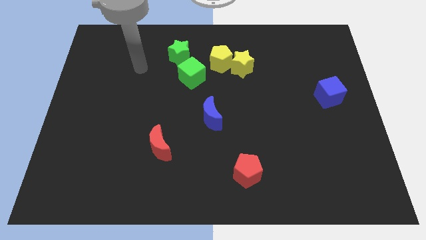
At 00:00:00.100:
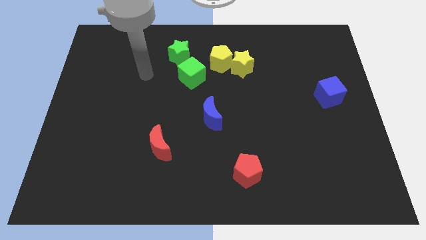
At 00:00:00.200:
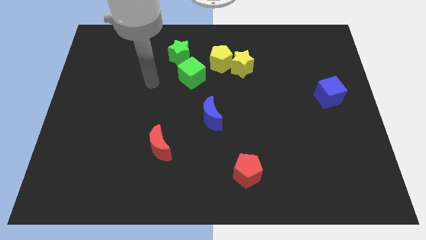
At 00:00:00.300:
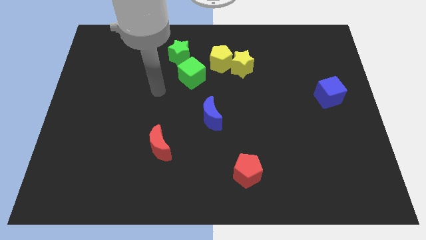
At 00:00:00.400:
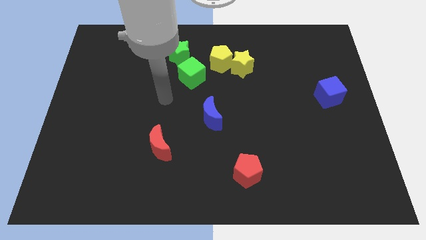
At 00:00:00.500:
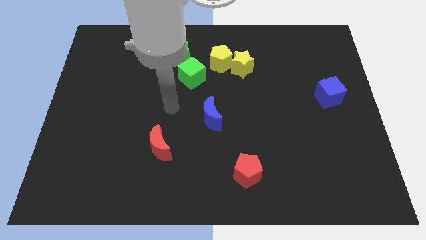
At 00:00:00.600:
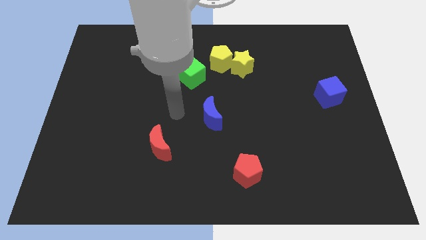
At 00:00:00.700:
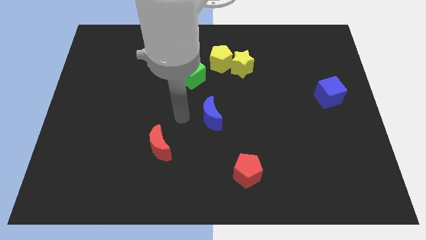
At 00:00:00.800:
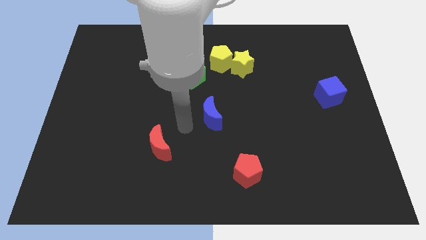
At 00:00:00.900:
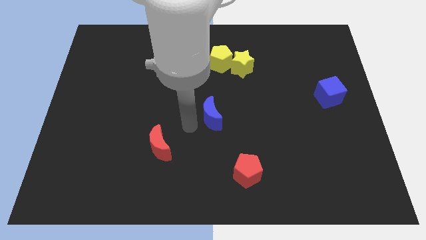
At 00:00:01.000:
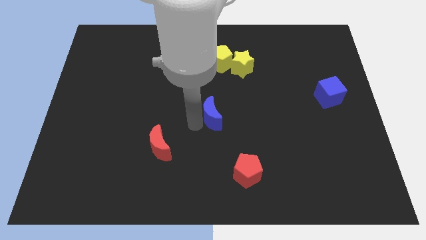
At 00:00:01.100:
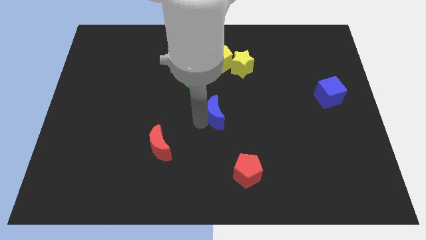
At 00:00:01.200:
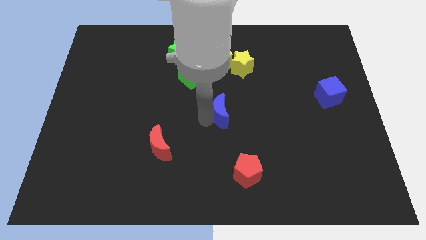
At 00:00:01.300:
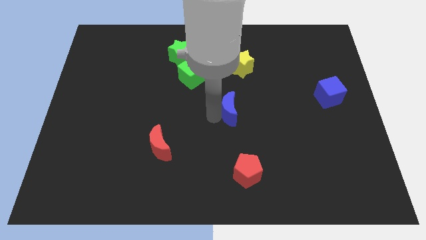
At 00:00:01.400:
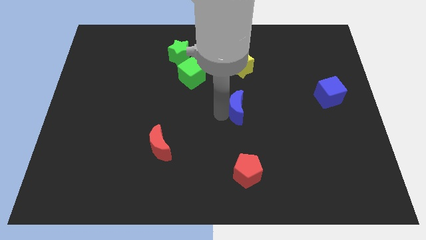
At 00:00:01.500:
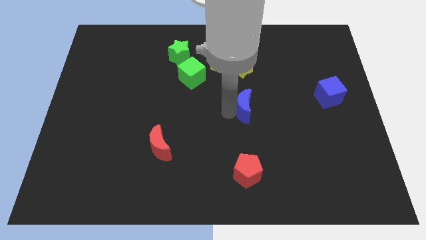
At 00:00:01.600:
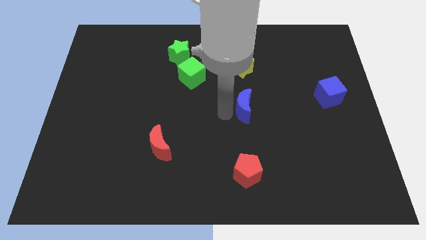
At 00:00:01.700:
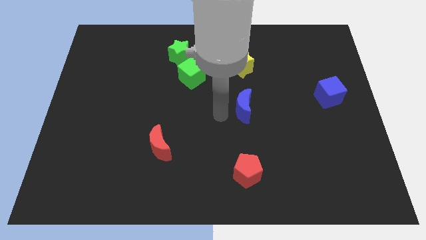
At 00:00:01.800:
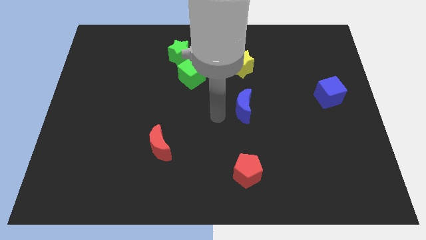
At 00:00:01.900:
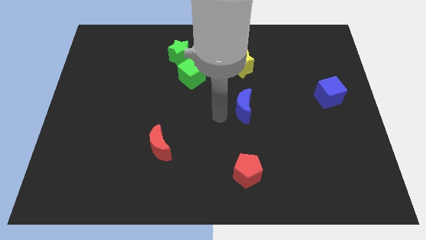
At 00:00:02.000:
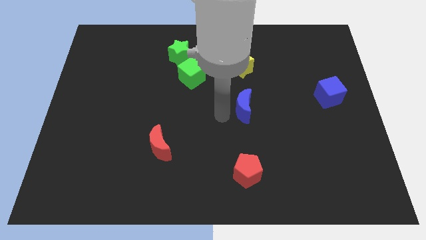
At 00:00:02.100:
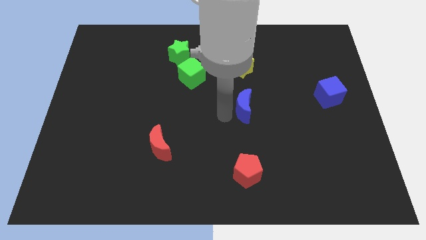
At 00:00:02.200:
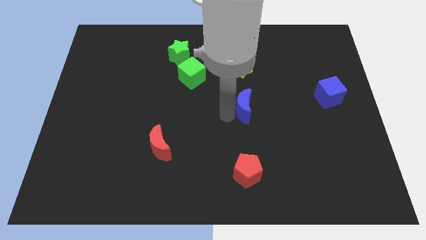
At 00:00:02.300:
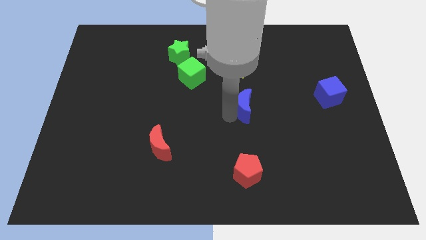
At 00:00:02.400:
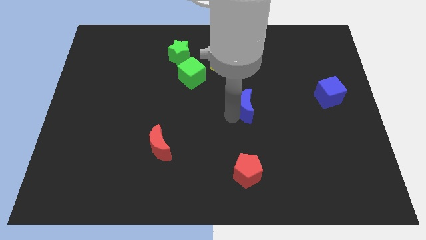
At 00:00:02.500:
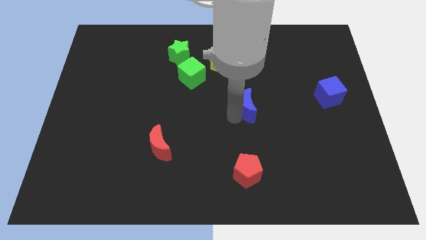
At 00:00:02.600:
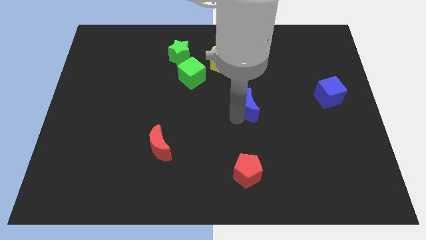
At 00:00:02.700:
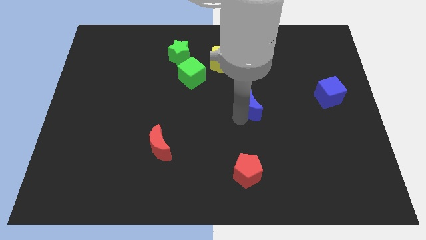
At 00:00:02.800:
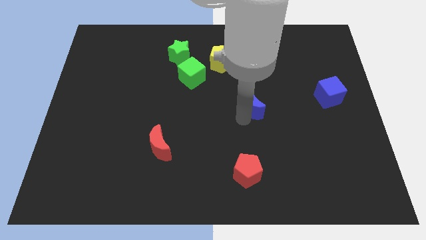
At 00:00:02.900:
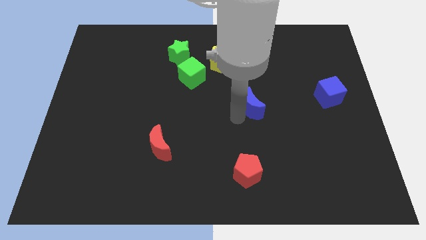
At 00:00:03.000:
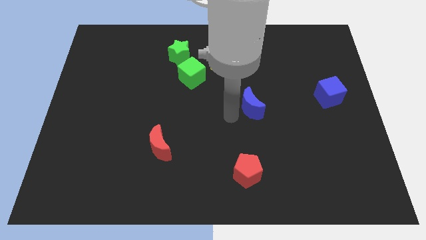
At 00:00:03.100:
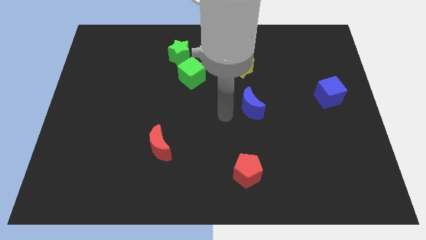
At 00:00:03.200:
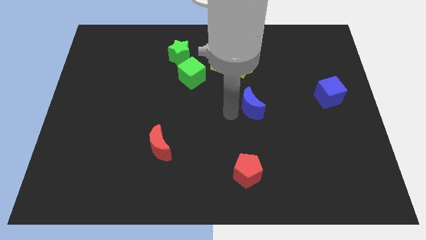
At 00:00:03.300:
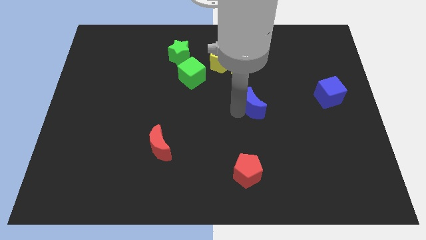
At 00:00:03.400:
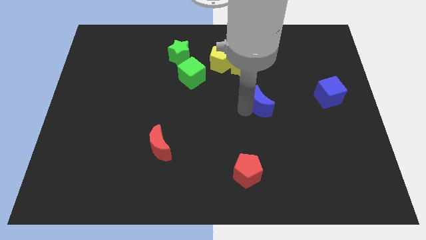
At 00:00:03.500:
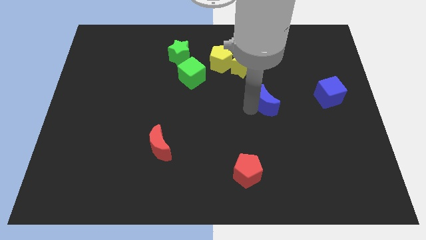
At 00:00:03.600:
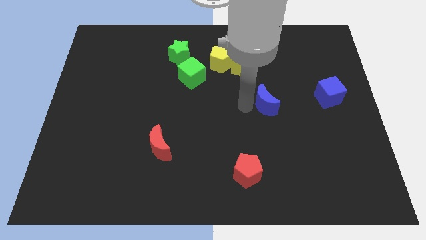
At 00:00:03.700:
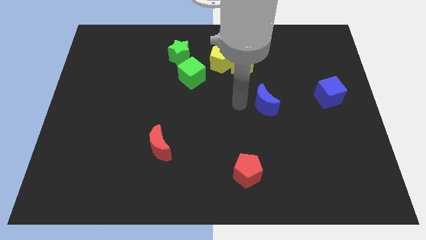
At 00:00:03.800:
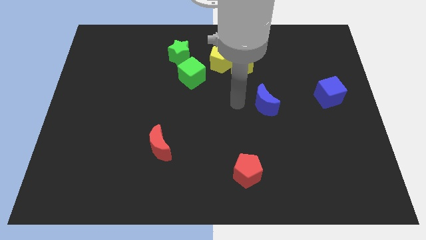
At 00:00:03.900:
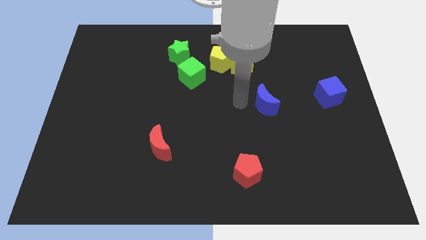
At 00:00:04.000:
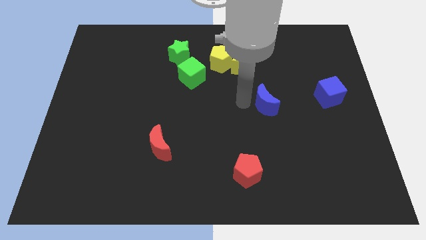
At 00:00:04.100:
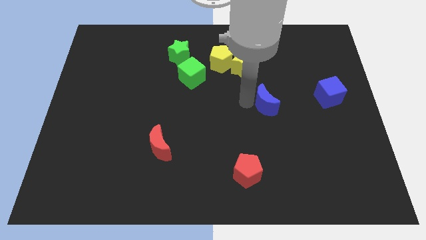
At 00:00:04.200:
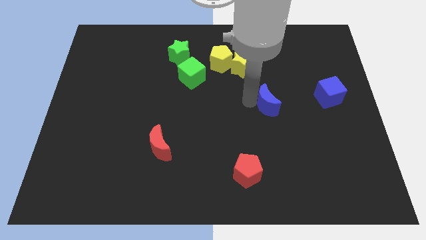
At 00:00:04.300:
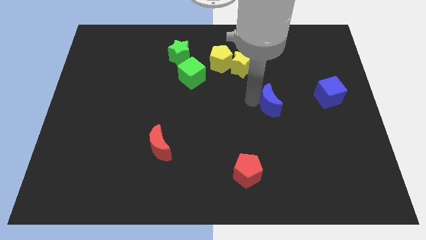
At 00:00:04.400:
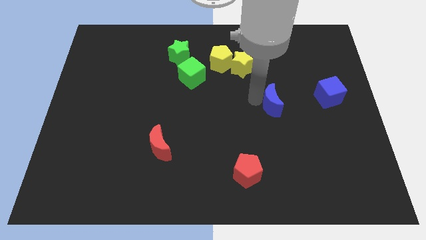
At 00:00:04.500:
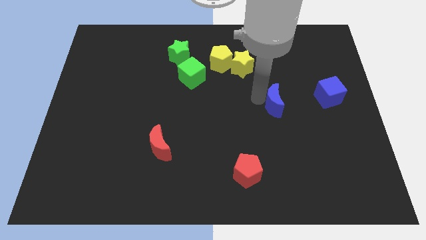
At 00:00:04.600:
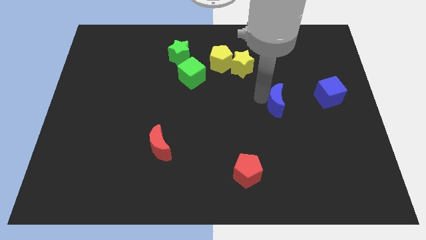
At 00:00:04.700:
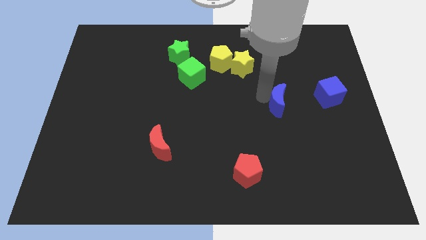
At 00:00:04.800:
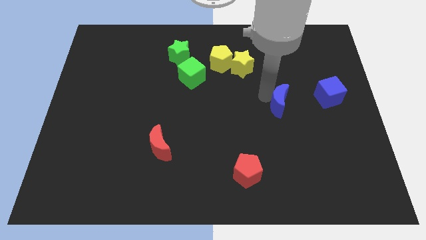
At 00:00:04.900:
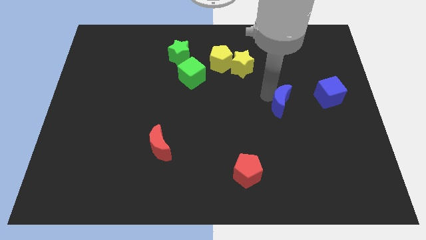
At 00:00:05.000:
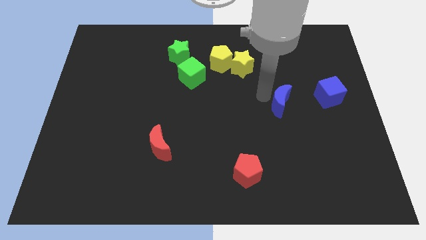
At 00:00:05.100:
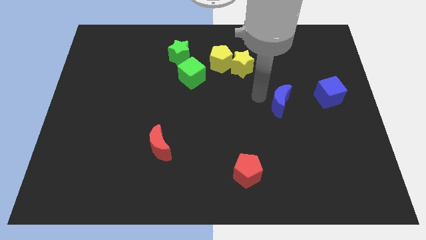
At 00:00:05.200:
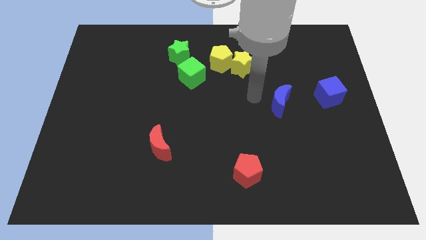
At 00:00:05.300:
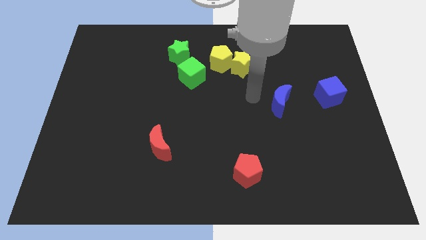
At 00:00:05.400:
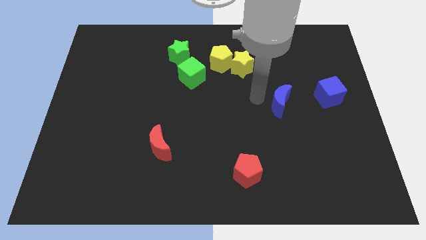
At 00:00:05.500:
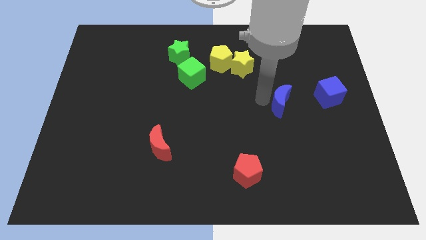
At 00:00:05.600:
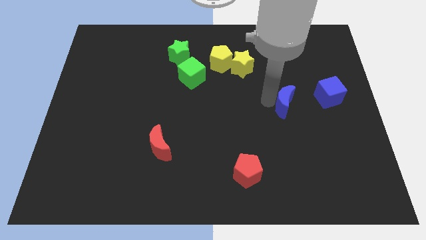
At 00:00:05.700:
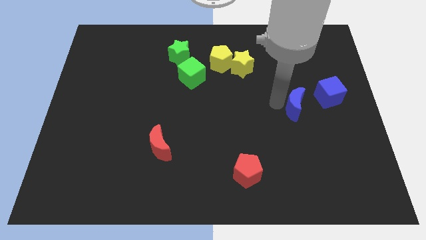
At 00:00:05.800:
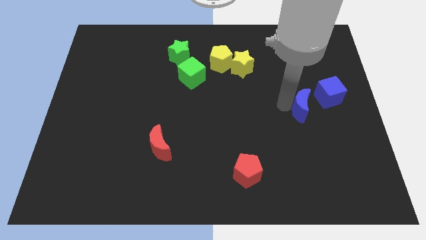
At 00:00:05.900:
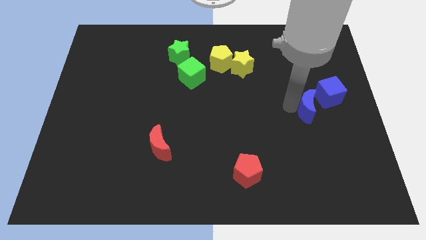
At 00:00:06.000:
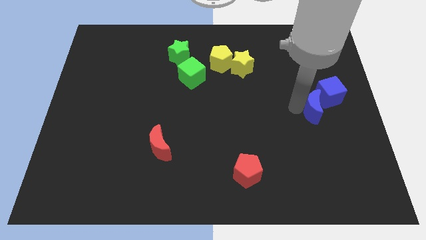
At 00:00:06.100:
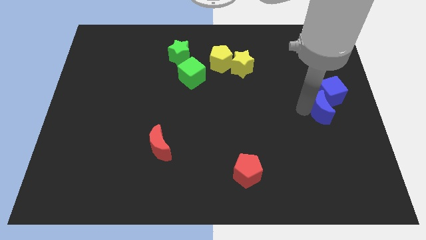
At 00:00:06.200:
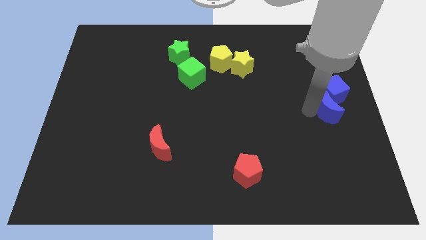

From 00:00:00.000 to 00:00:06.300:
put the blue moon to the right side
